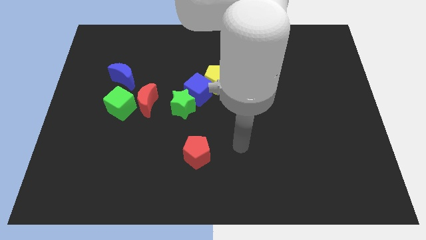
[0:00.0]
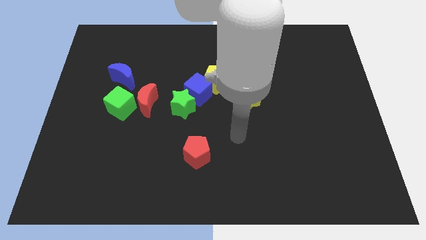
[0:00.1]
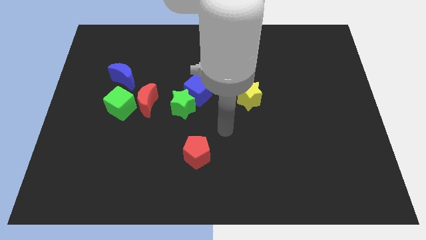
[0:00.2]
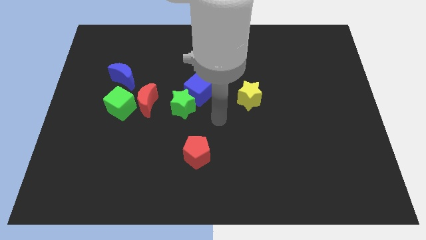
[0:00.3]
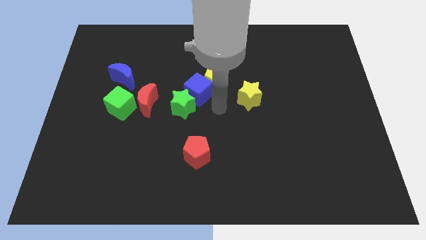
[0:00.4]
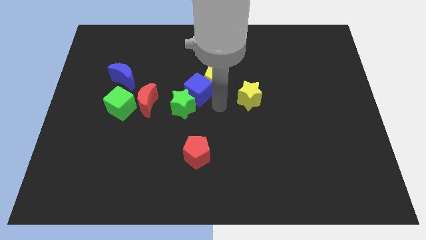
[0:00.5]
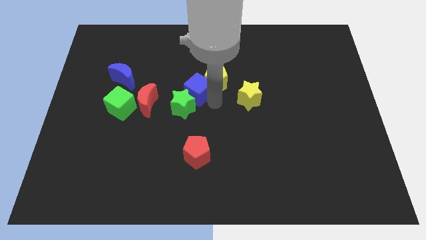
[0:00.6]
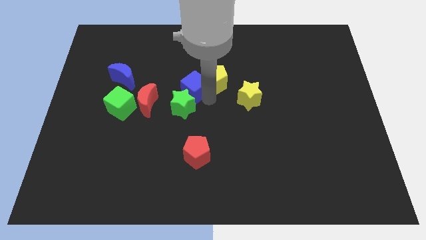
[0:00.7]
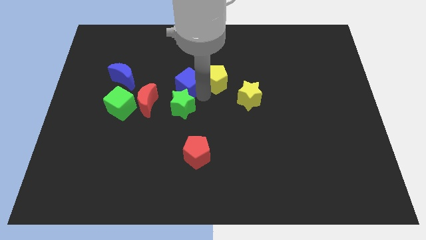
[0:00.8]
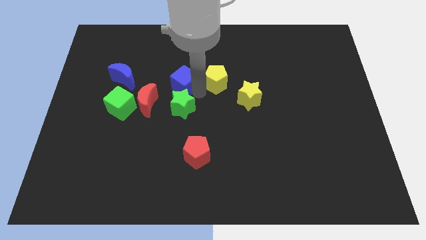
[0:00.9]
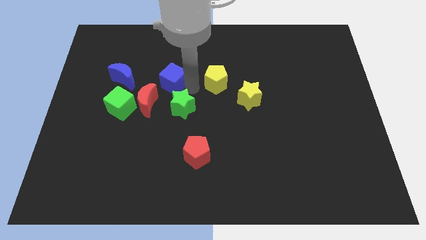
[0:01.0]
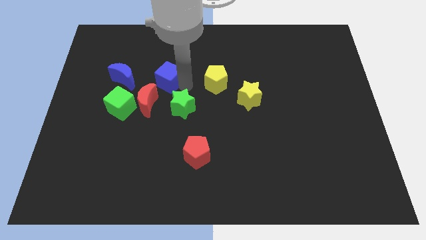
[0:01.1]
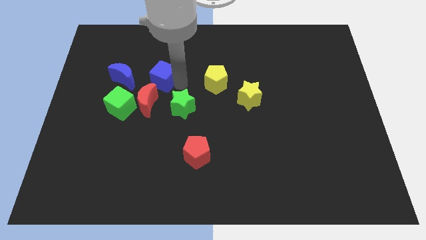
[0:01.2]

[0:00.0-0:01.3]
pull the blue cube apart from the green star and yellow pentagon

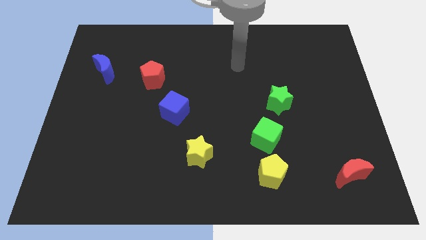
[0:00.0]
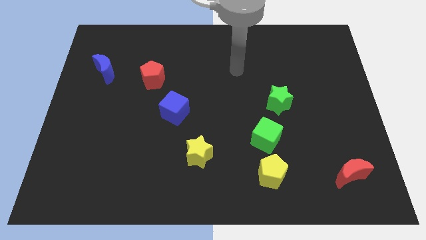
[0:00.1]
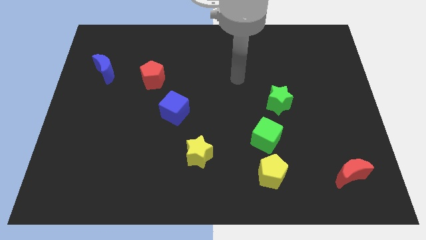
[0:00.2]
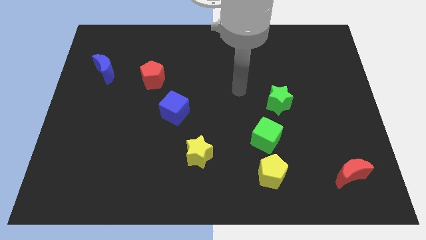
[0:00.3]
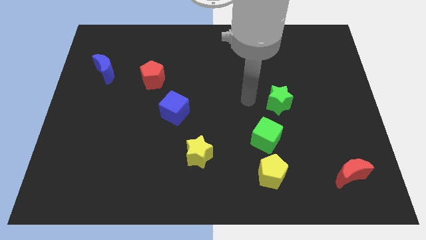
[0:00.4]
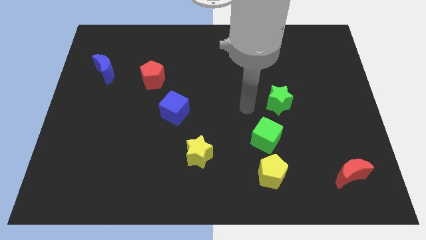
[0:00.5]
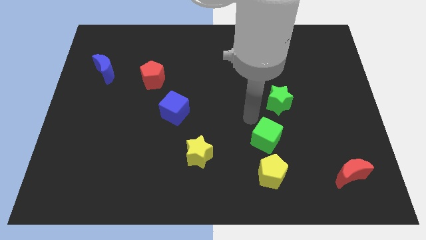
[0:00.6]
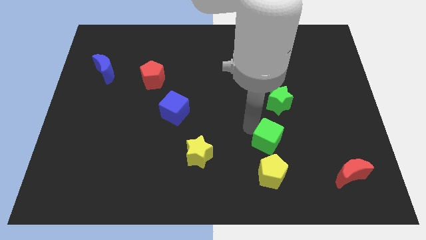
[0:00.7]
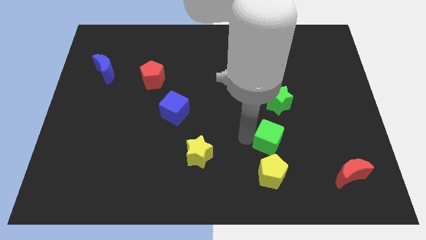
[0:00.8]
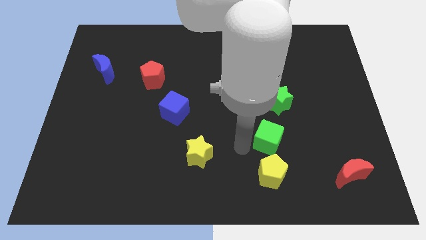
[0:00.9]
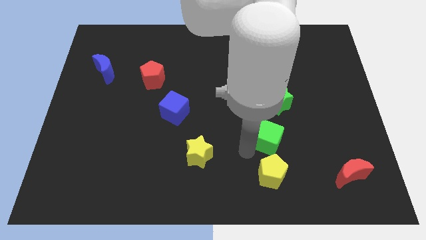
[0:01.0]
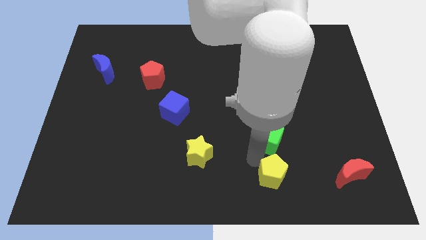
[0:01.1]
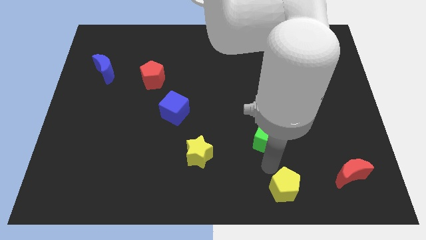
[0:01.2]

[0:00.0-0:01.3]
separate the green cube from the yellow pentagon

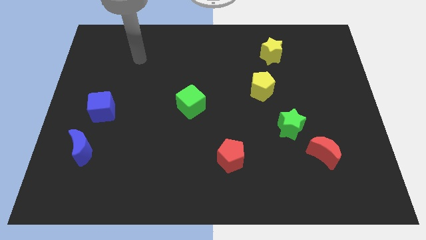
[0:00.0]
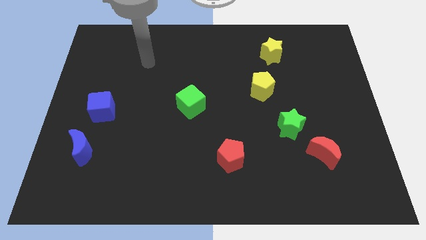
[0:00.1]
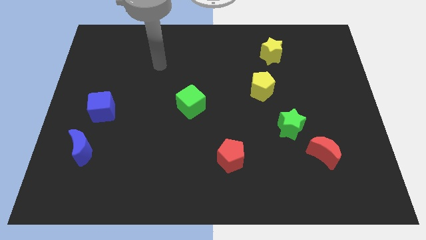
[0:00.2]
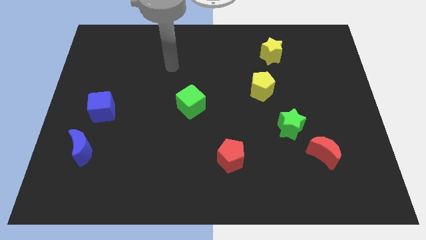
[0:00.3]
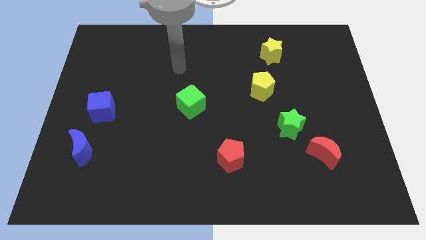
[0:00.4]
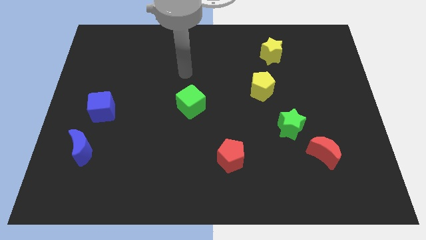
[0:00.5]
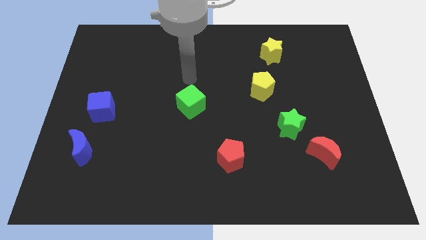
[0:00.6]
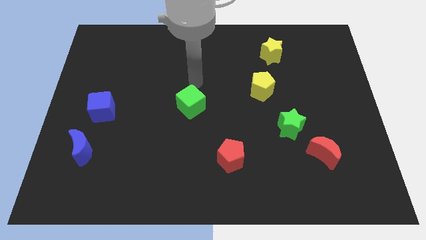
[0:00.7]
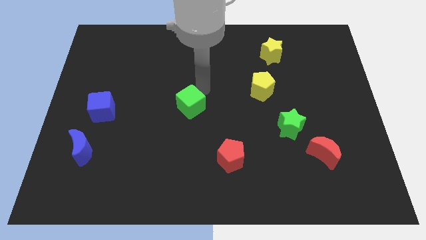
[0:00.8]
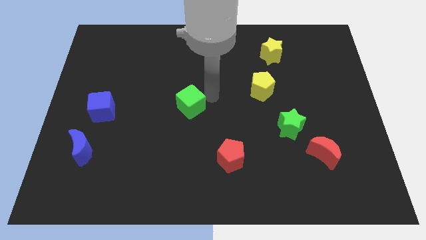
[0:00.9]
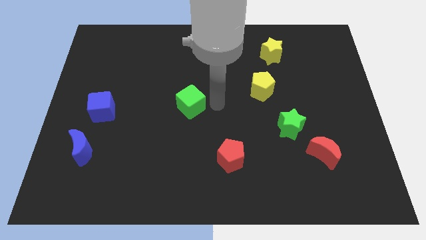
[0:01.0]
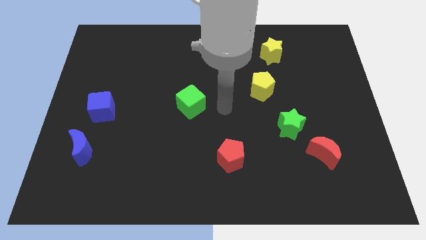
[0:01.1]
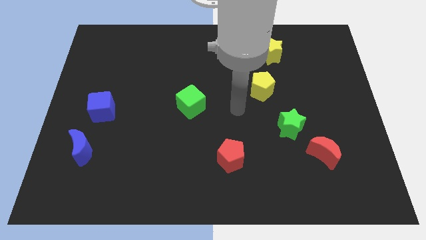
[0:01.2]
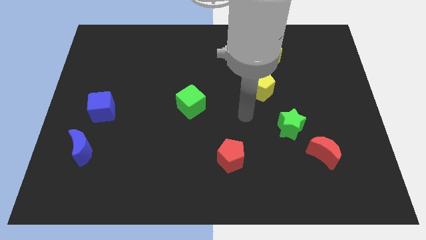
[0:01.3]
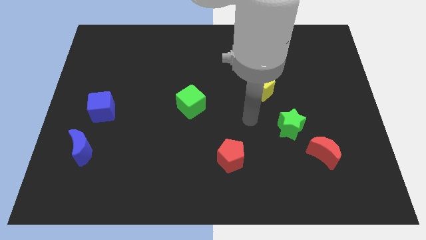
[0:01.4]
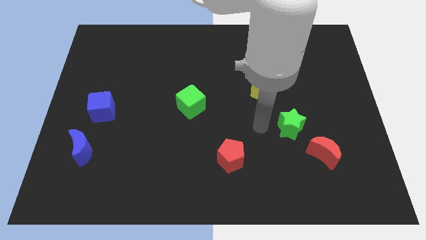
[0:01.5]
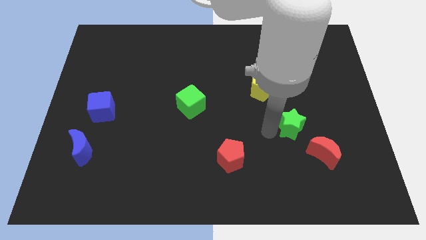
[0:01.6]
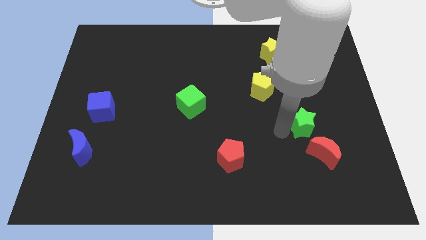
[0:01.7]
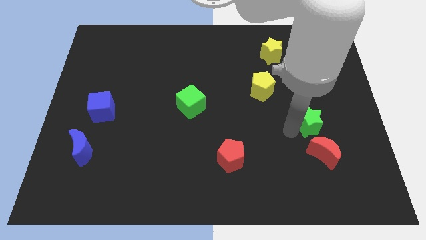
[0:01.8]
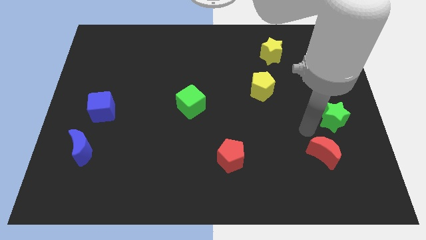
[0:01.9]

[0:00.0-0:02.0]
pull the red moon apart from the green star

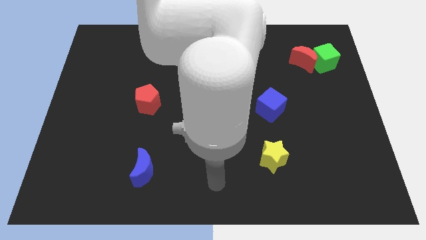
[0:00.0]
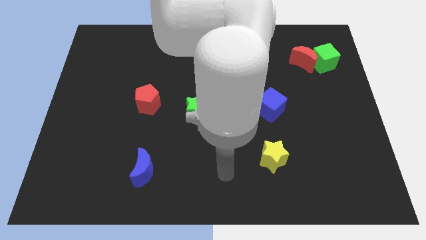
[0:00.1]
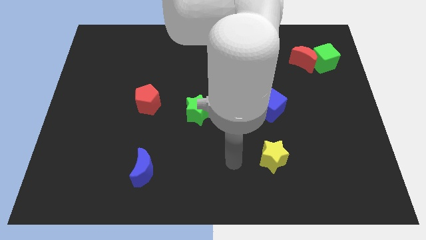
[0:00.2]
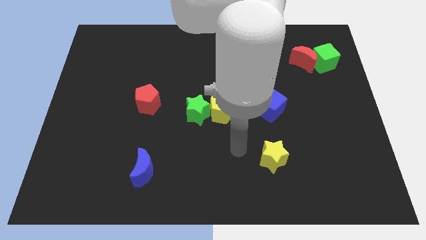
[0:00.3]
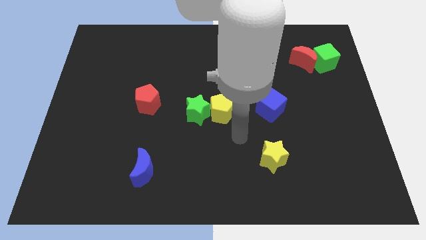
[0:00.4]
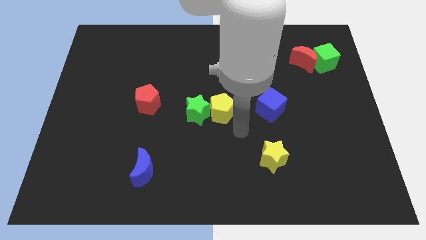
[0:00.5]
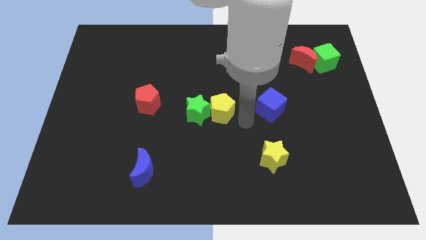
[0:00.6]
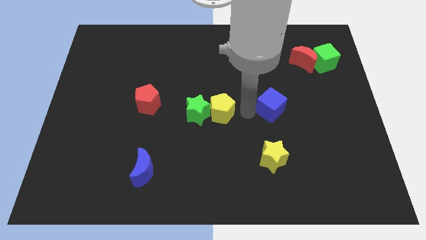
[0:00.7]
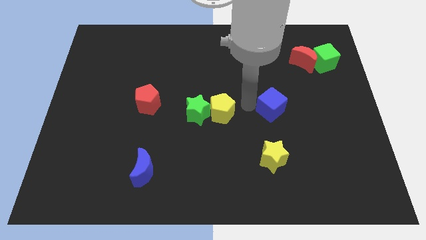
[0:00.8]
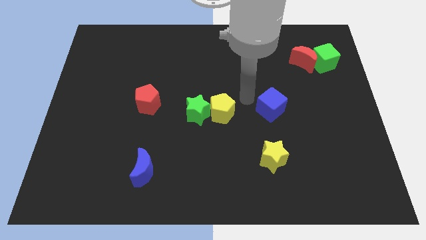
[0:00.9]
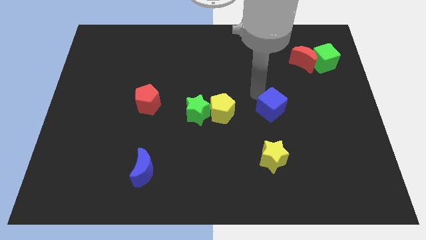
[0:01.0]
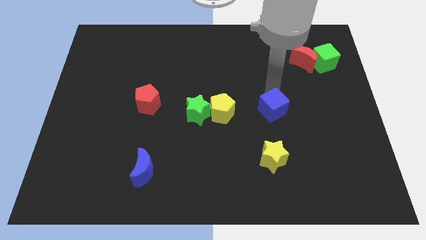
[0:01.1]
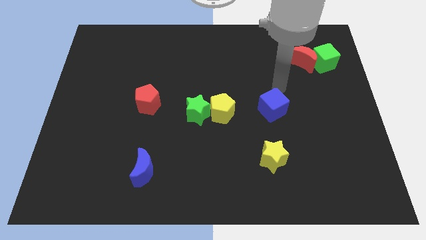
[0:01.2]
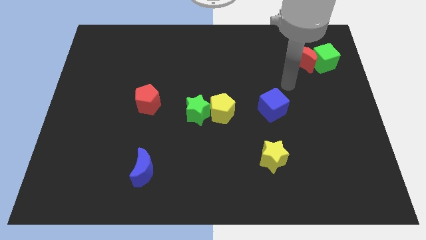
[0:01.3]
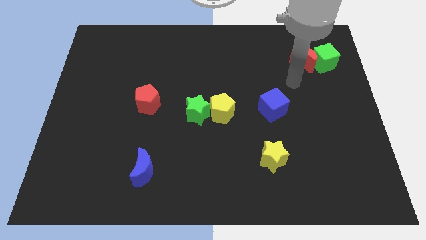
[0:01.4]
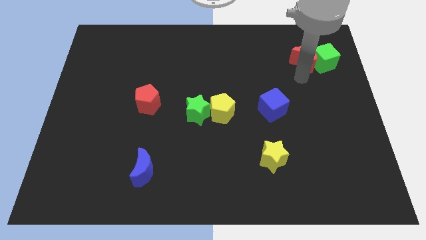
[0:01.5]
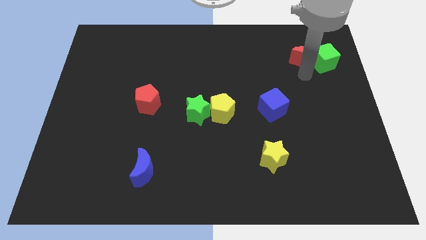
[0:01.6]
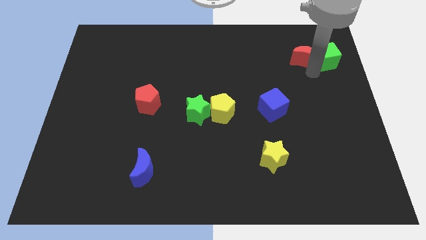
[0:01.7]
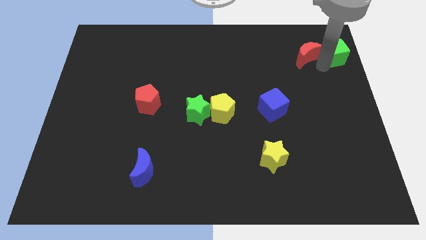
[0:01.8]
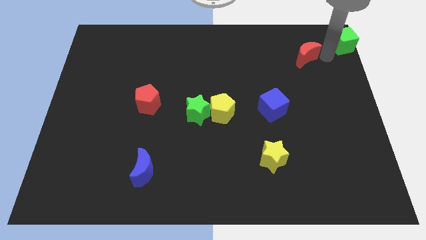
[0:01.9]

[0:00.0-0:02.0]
move the red moon away from the green cube

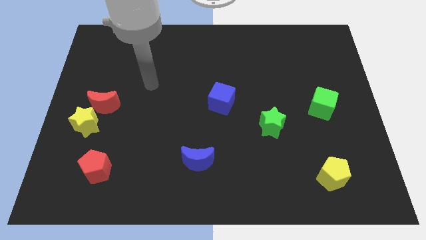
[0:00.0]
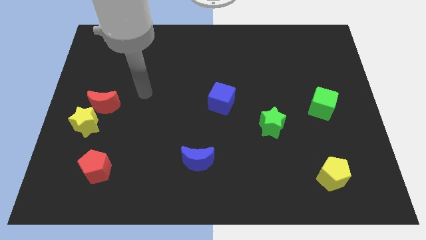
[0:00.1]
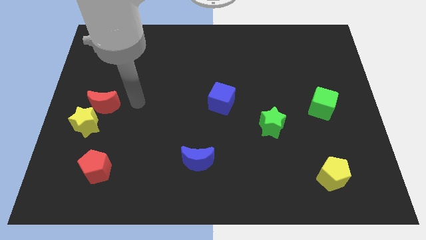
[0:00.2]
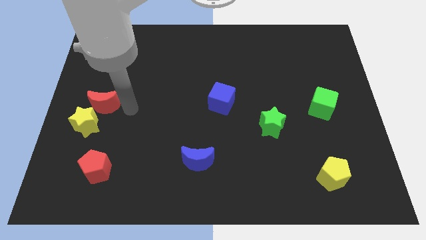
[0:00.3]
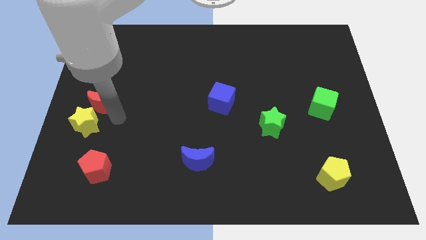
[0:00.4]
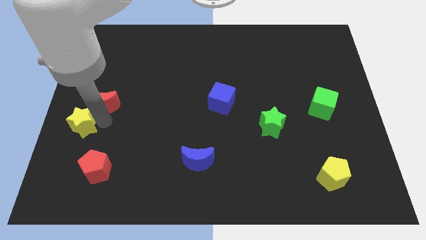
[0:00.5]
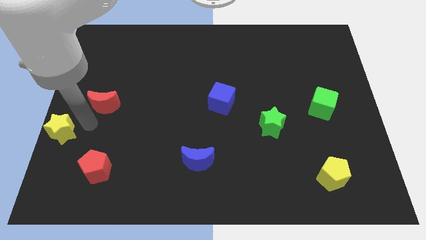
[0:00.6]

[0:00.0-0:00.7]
pull the red moon apart from the yellow star

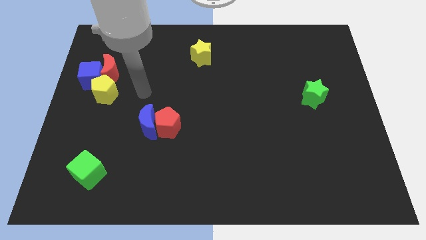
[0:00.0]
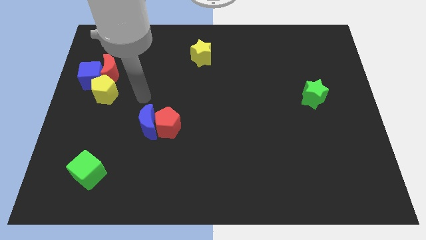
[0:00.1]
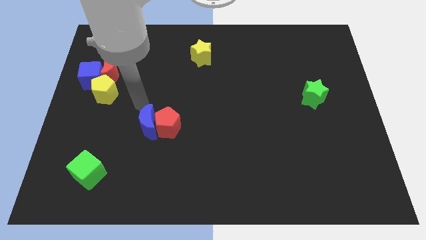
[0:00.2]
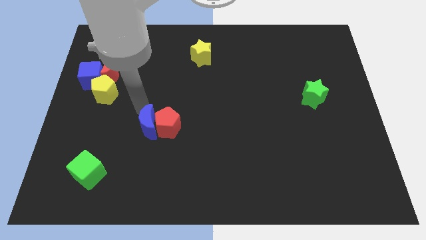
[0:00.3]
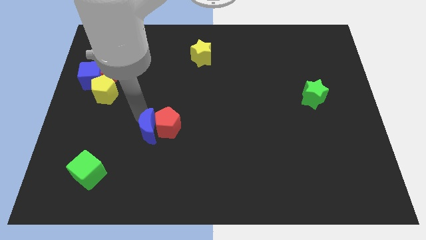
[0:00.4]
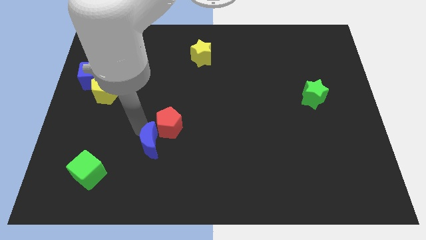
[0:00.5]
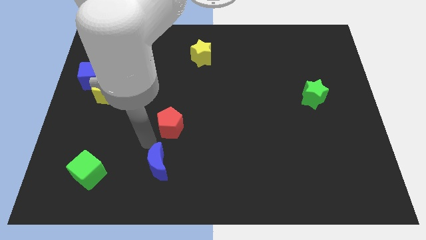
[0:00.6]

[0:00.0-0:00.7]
pull the red pentagon apart from the blue moon

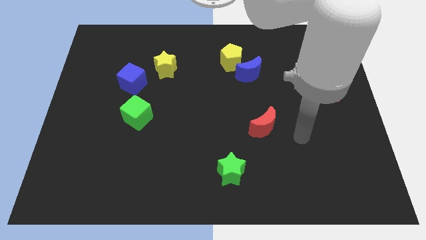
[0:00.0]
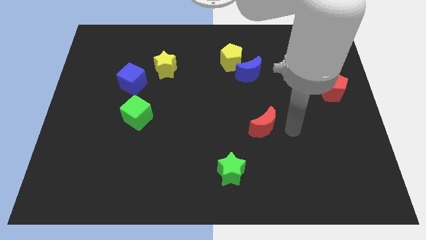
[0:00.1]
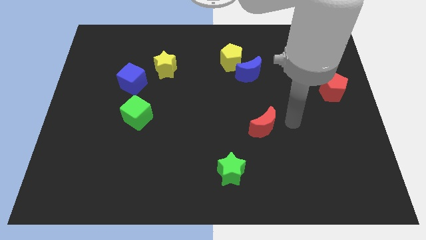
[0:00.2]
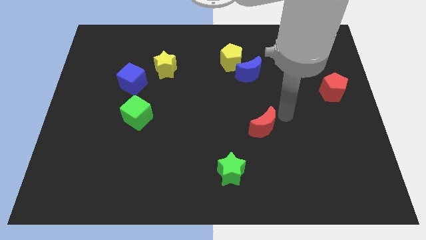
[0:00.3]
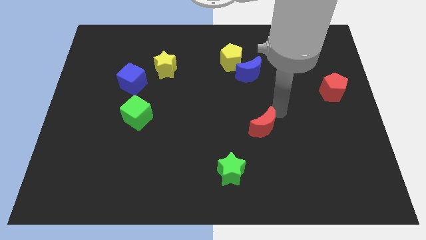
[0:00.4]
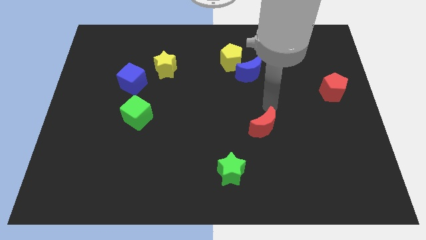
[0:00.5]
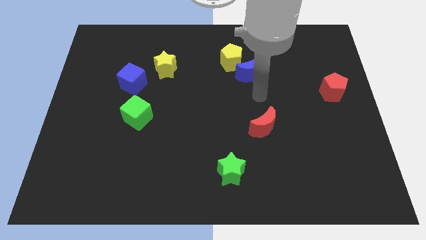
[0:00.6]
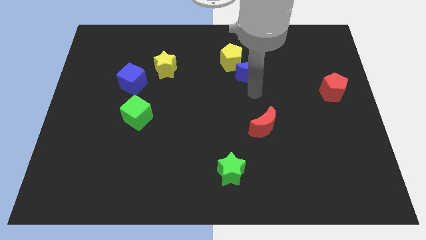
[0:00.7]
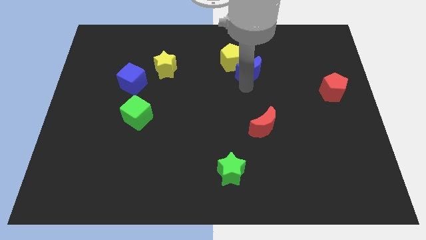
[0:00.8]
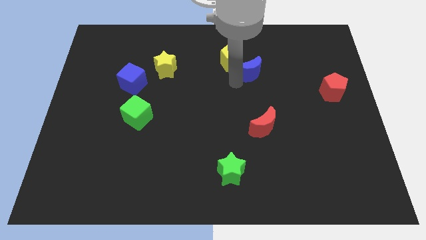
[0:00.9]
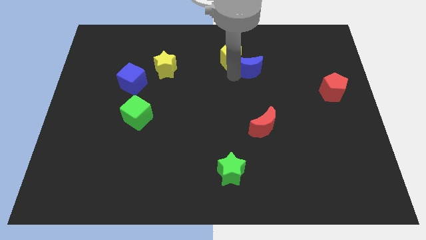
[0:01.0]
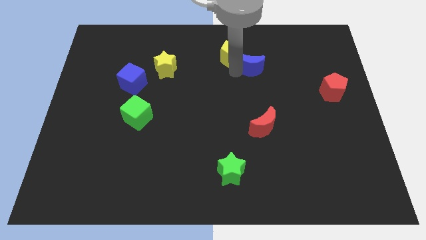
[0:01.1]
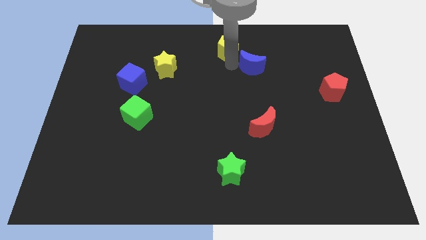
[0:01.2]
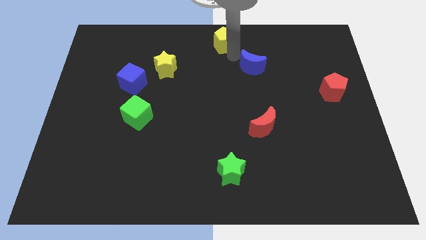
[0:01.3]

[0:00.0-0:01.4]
pull the blue moon apart from the yellow pentagon
